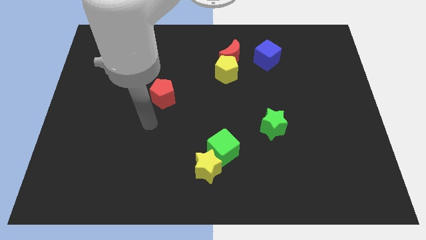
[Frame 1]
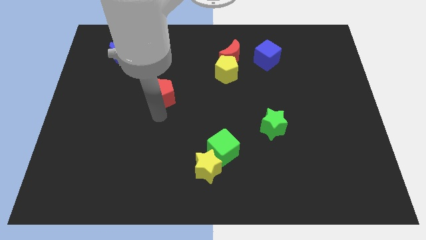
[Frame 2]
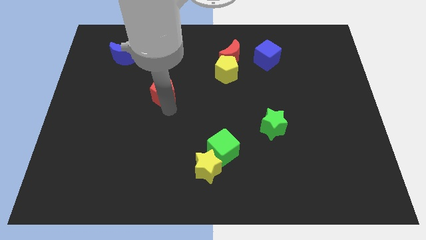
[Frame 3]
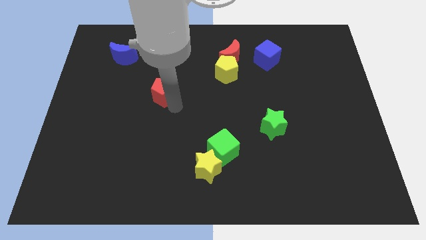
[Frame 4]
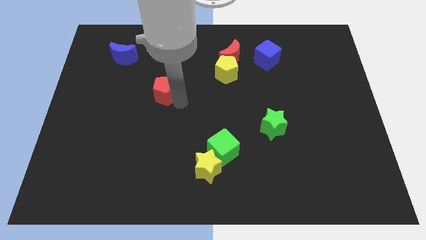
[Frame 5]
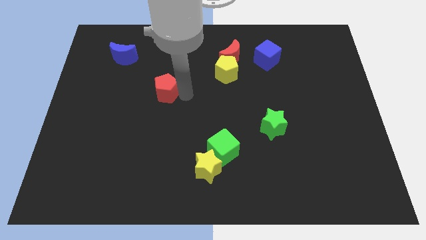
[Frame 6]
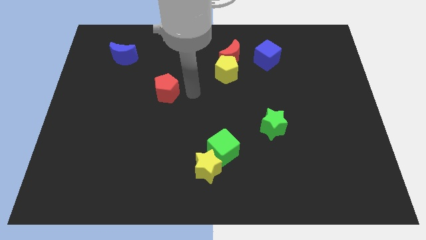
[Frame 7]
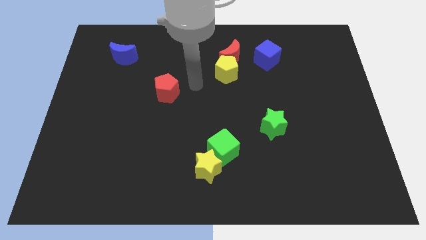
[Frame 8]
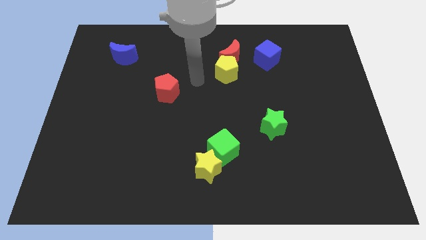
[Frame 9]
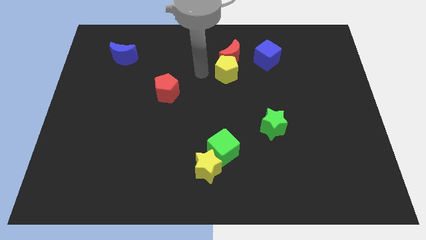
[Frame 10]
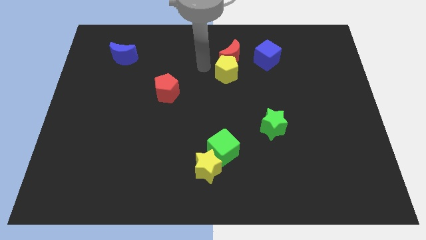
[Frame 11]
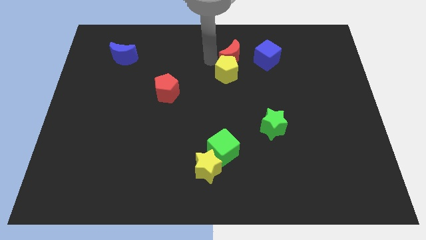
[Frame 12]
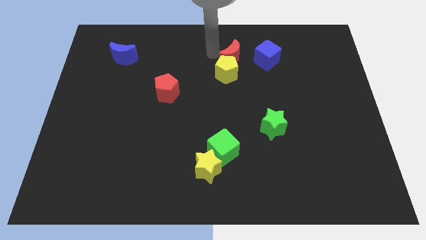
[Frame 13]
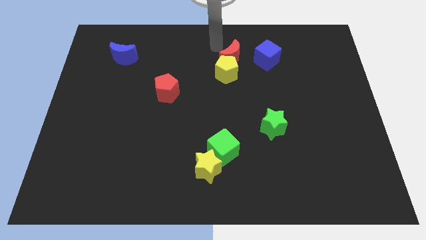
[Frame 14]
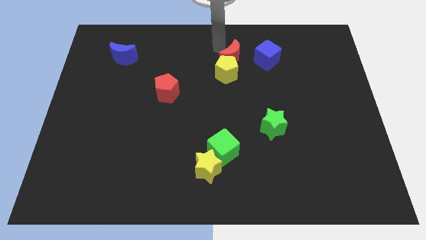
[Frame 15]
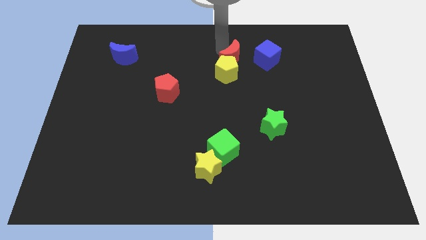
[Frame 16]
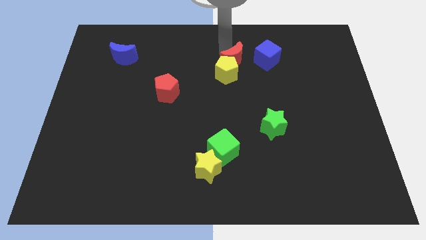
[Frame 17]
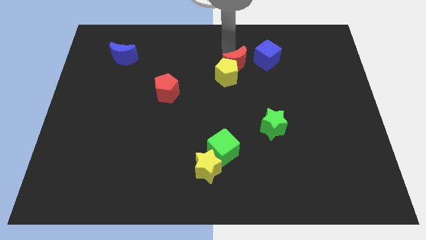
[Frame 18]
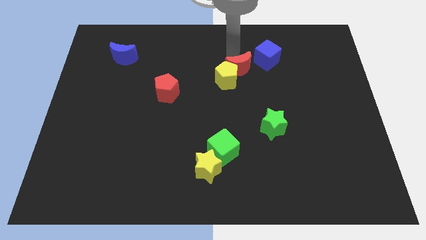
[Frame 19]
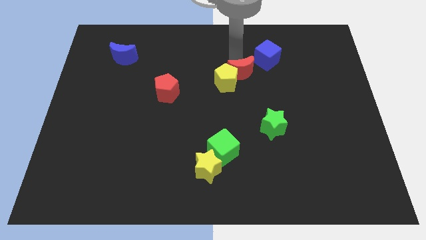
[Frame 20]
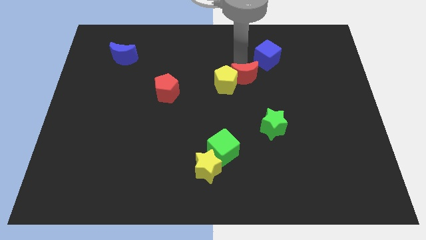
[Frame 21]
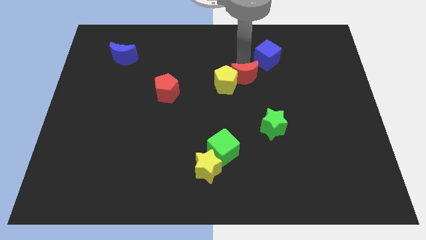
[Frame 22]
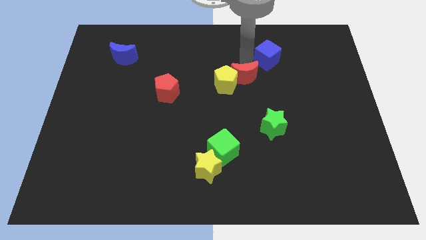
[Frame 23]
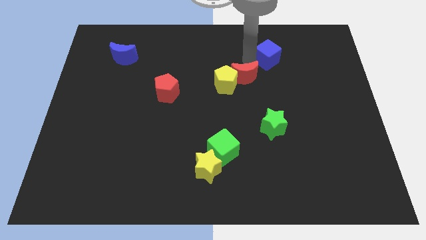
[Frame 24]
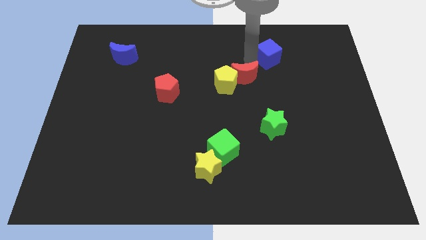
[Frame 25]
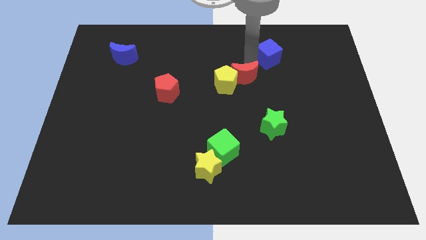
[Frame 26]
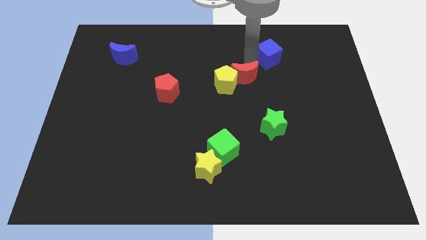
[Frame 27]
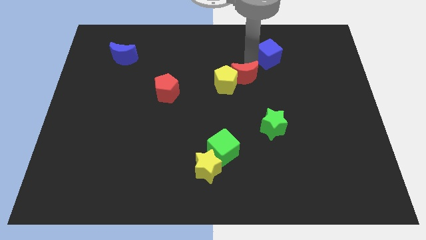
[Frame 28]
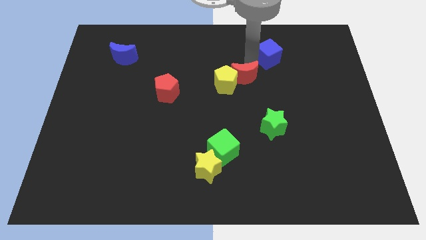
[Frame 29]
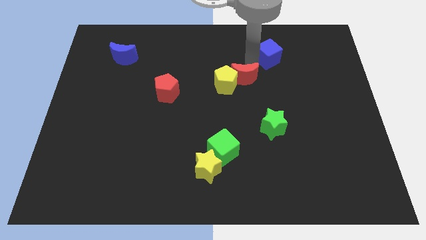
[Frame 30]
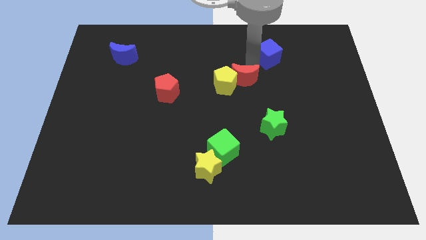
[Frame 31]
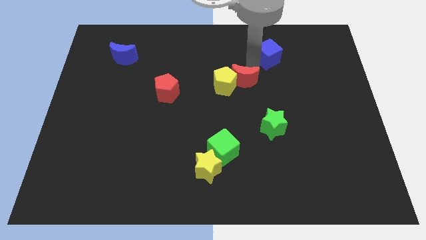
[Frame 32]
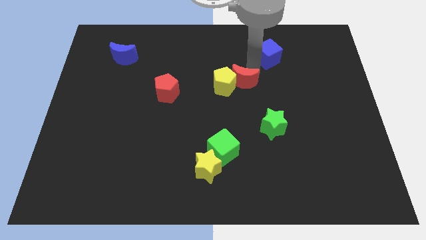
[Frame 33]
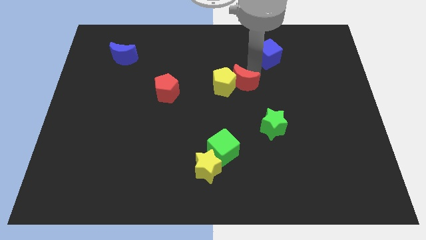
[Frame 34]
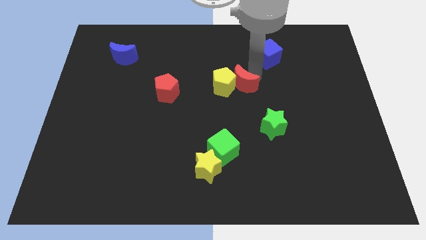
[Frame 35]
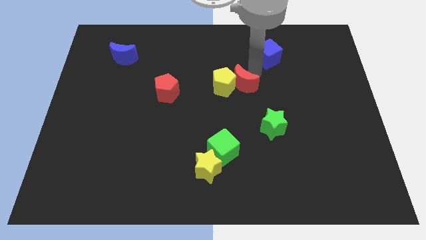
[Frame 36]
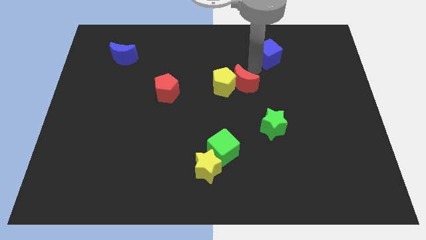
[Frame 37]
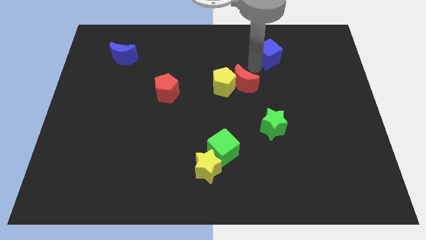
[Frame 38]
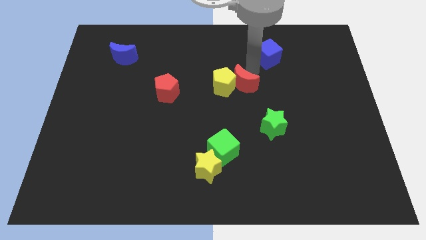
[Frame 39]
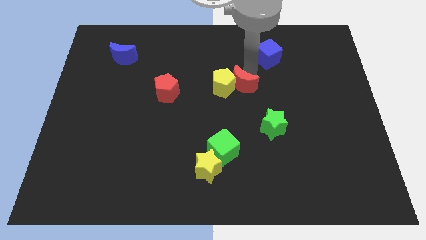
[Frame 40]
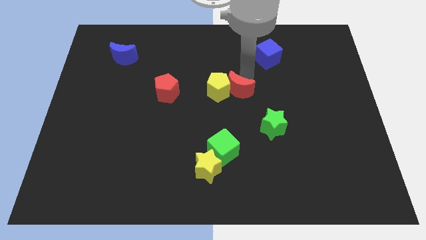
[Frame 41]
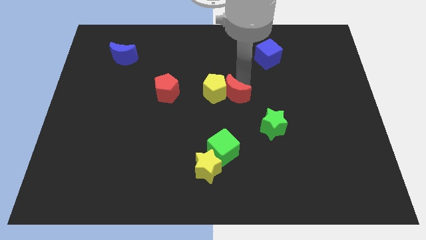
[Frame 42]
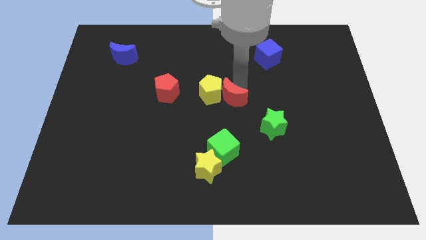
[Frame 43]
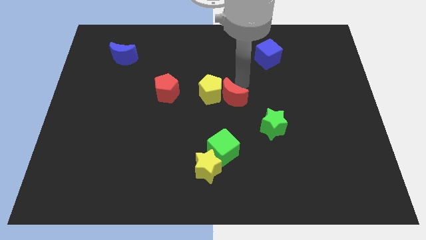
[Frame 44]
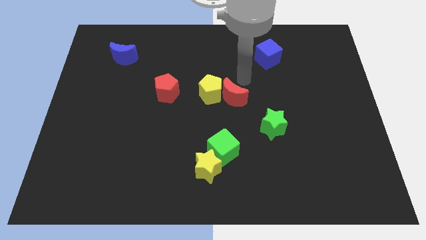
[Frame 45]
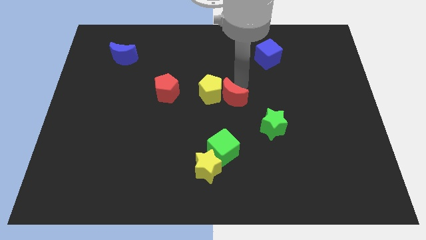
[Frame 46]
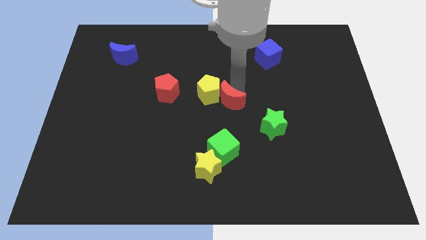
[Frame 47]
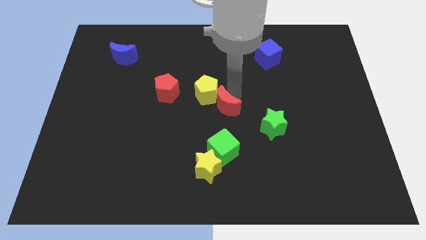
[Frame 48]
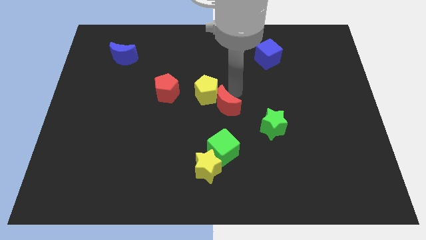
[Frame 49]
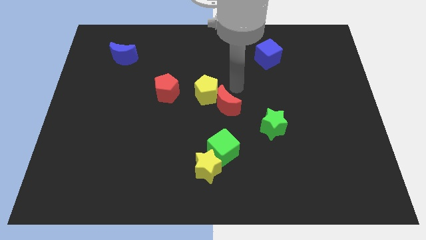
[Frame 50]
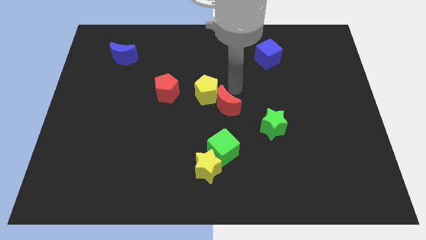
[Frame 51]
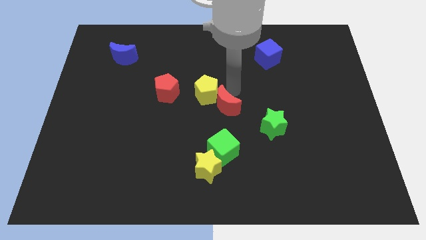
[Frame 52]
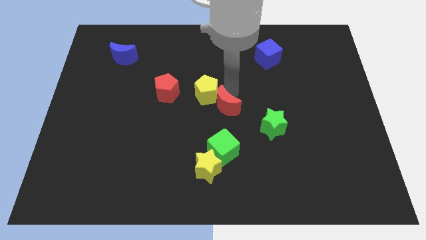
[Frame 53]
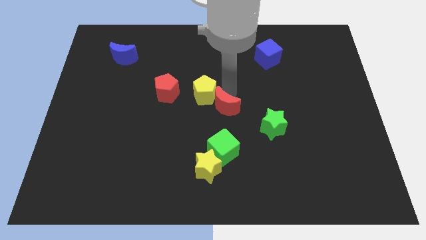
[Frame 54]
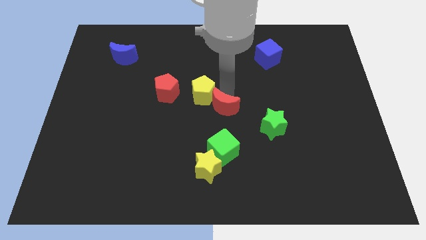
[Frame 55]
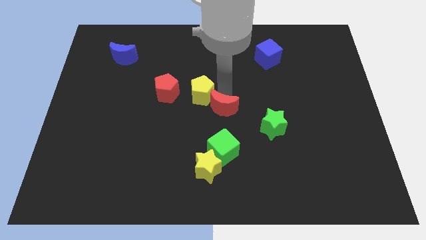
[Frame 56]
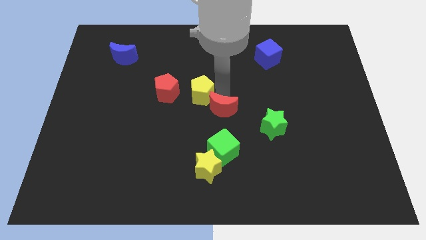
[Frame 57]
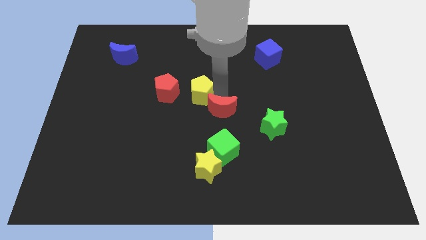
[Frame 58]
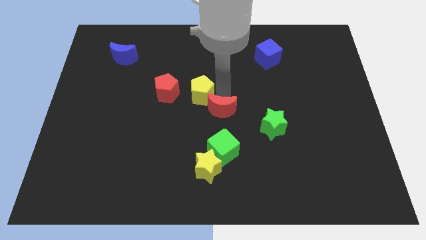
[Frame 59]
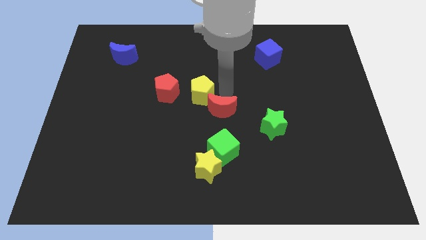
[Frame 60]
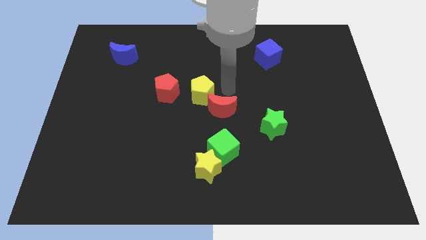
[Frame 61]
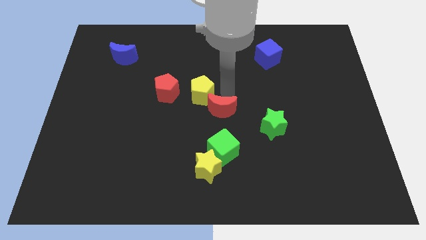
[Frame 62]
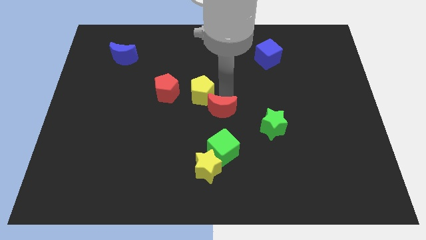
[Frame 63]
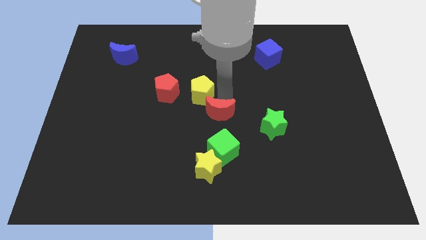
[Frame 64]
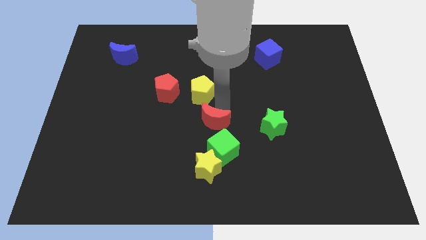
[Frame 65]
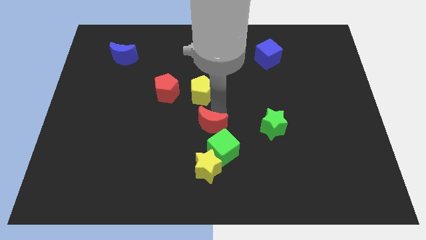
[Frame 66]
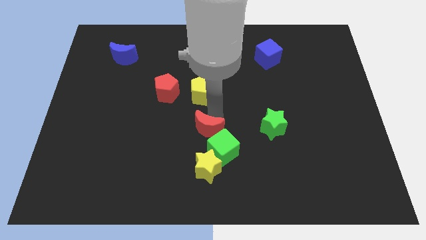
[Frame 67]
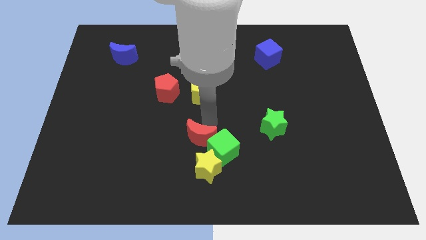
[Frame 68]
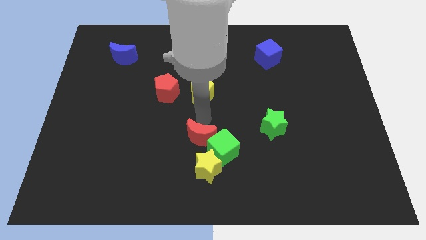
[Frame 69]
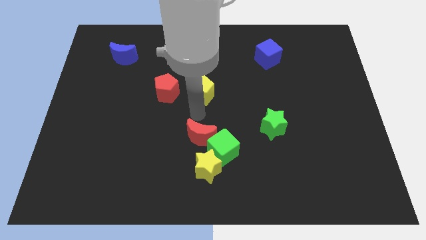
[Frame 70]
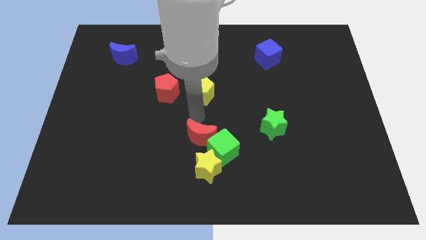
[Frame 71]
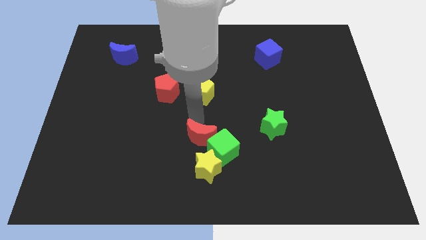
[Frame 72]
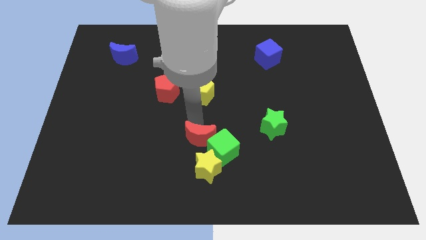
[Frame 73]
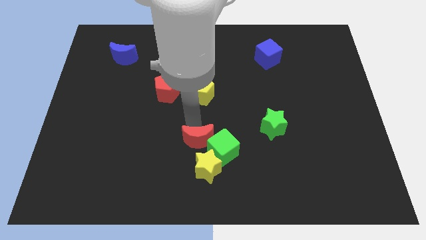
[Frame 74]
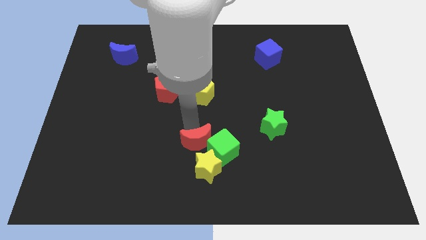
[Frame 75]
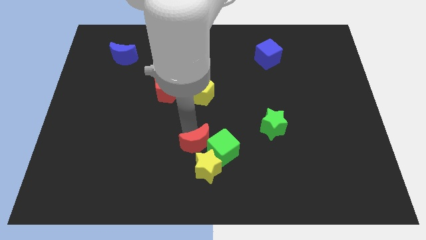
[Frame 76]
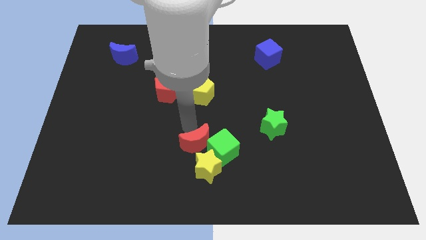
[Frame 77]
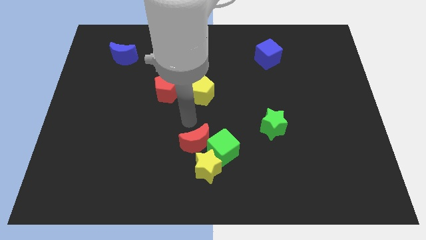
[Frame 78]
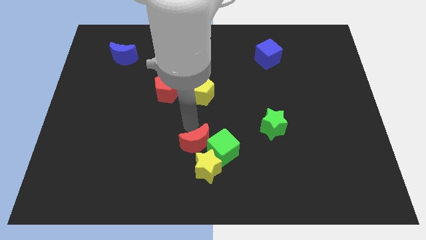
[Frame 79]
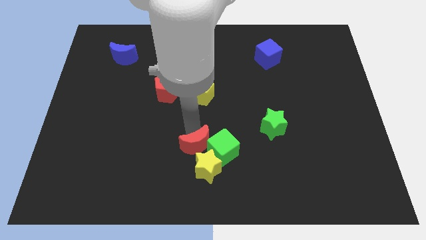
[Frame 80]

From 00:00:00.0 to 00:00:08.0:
put the red moon towards the yellow star
